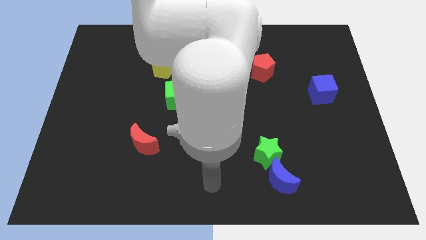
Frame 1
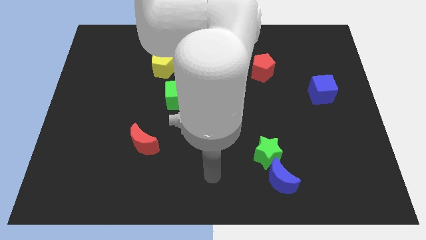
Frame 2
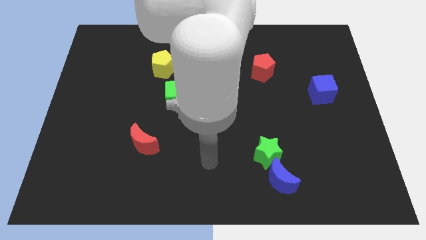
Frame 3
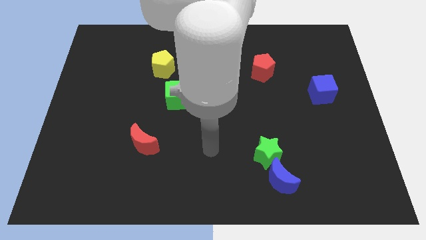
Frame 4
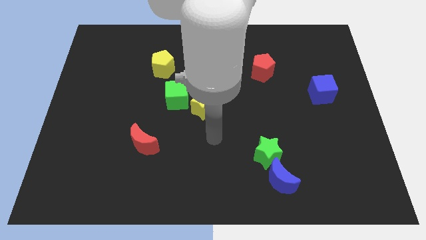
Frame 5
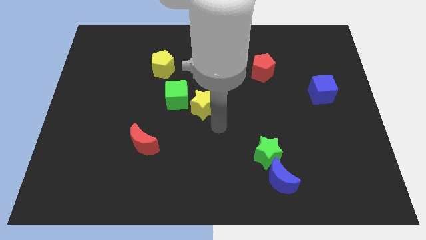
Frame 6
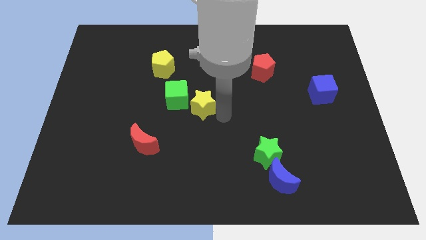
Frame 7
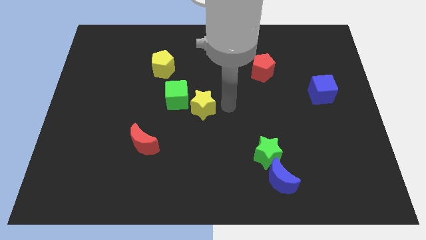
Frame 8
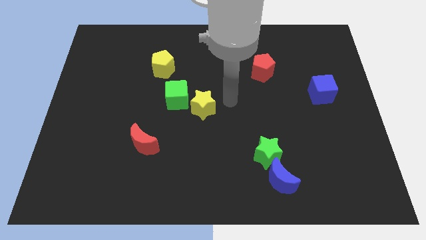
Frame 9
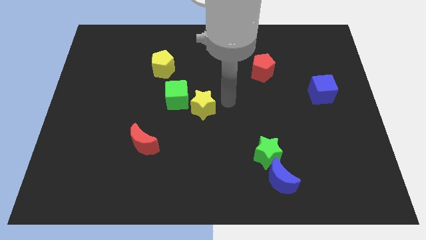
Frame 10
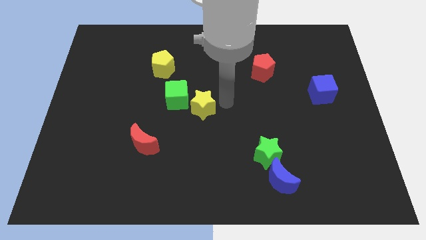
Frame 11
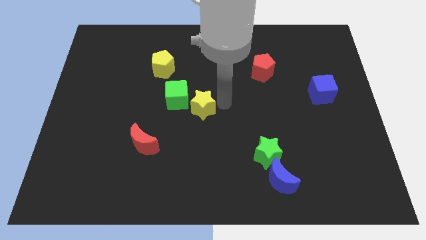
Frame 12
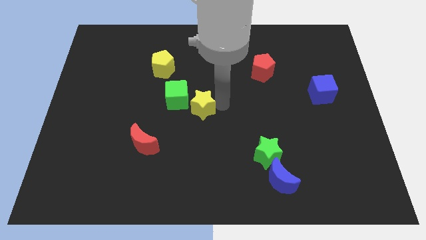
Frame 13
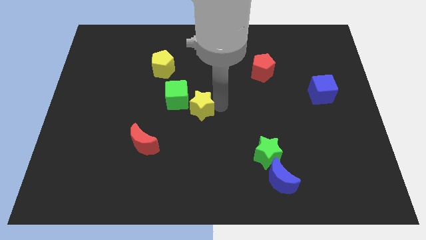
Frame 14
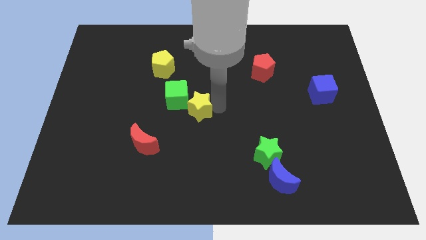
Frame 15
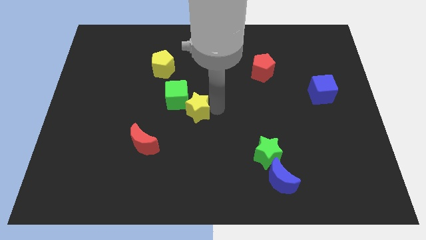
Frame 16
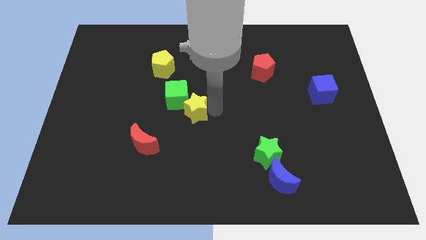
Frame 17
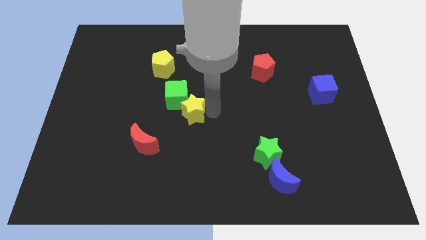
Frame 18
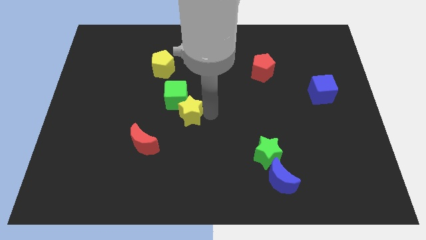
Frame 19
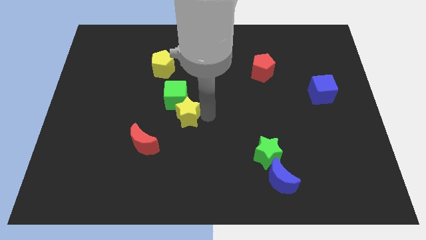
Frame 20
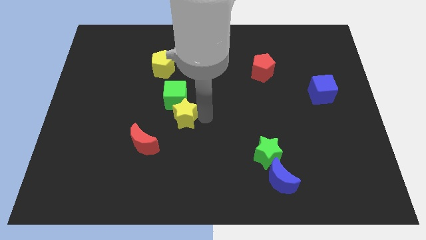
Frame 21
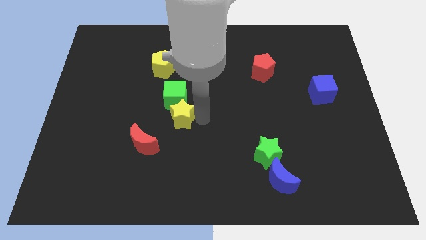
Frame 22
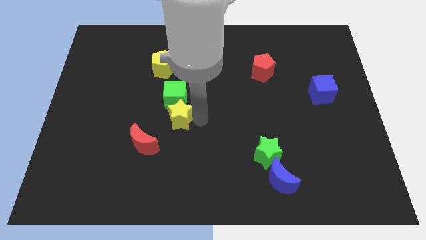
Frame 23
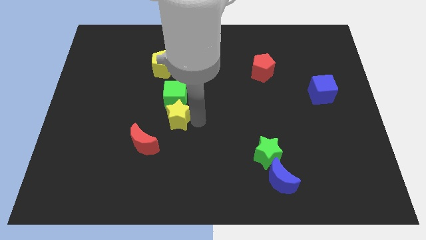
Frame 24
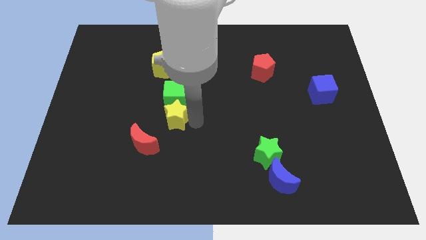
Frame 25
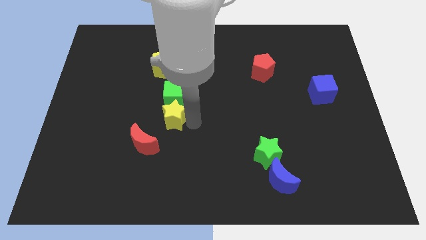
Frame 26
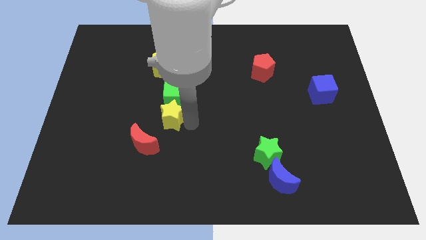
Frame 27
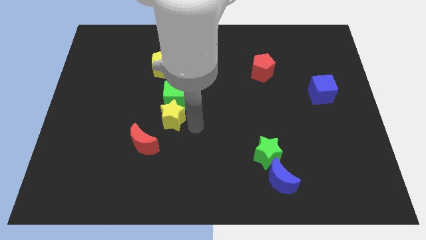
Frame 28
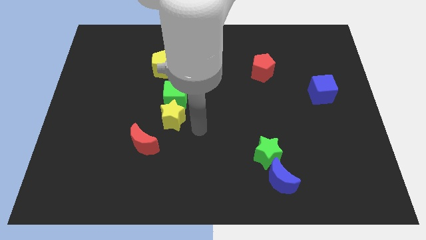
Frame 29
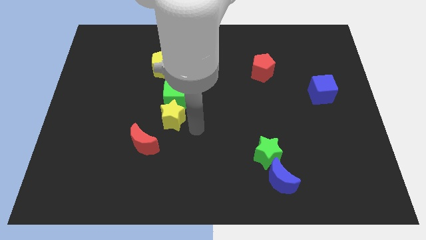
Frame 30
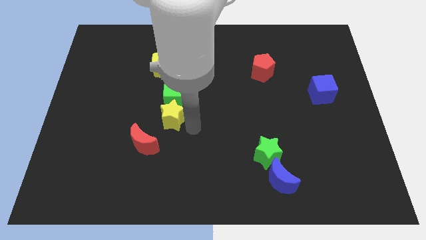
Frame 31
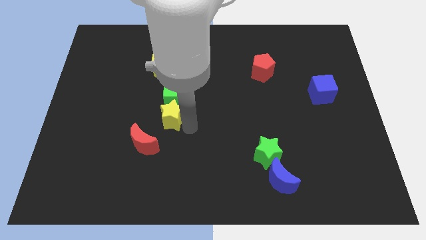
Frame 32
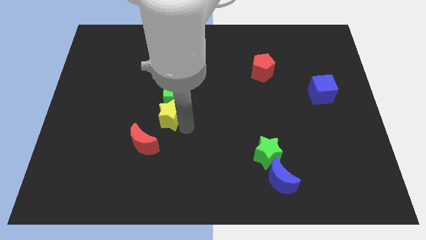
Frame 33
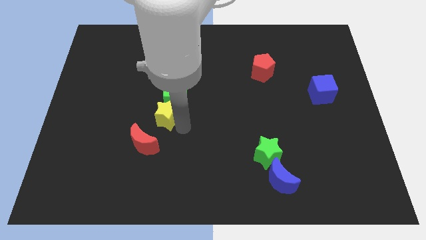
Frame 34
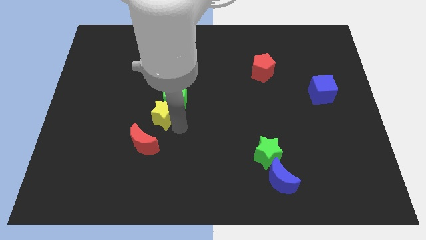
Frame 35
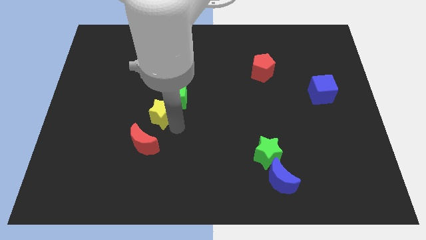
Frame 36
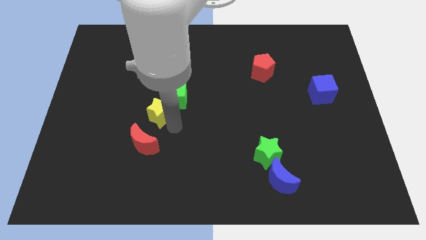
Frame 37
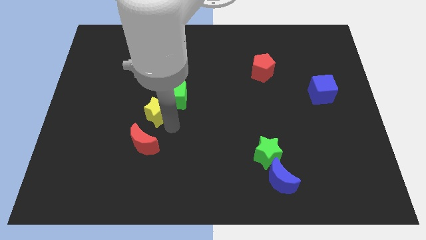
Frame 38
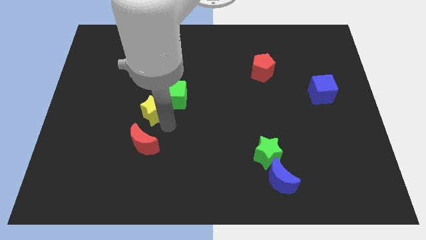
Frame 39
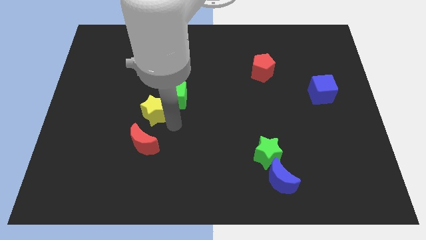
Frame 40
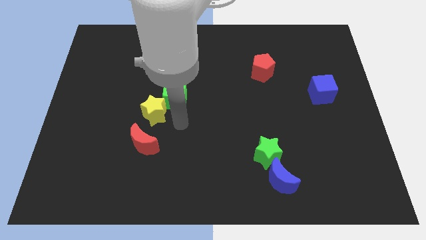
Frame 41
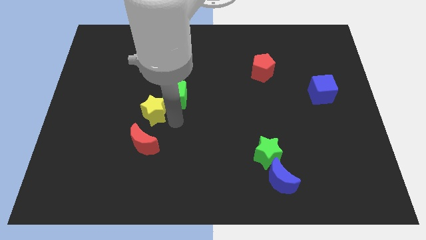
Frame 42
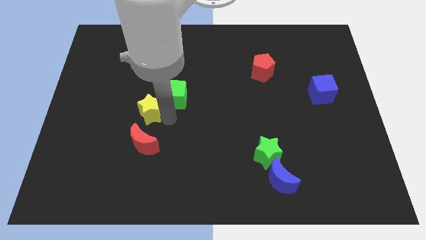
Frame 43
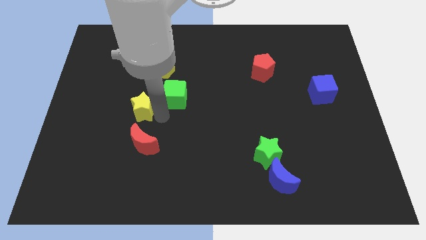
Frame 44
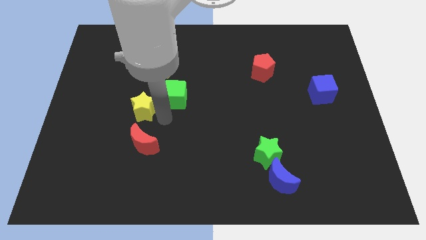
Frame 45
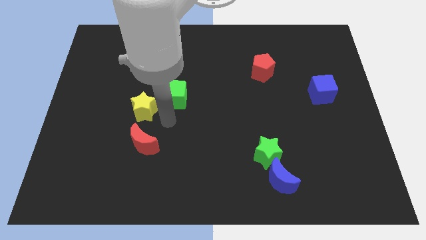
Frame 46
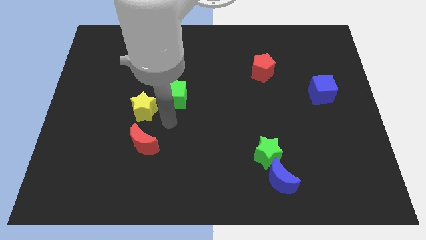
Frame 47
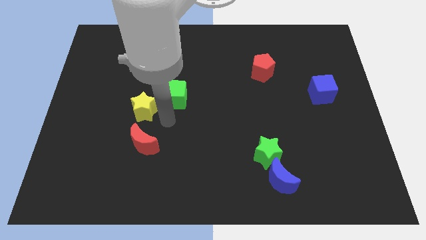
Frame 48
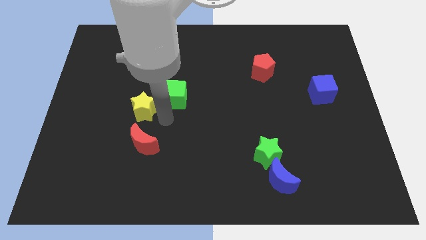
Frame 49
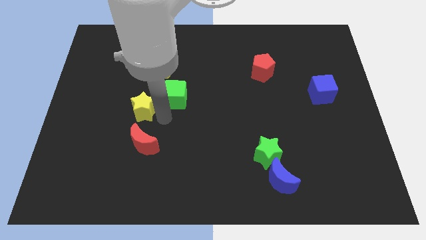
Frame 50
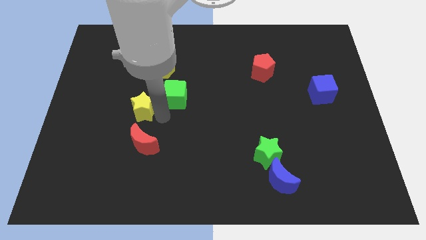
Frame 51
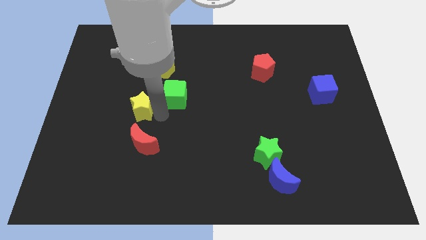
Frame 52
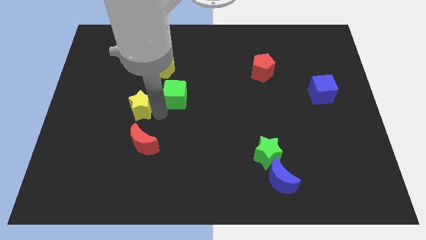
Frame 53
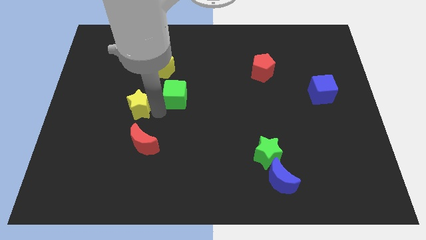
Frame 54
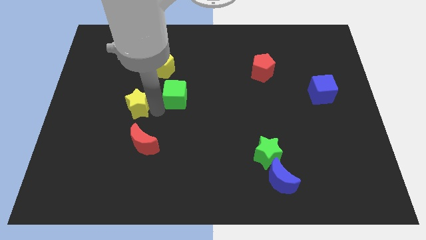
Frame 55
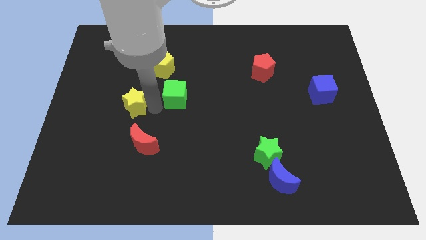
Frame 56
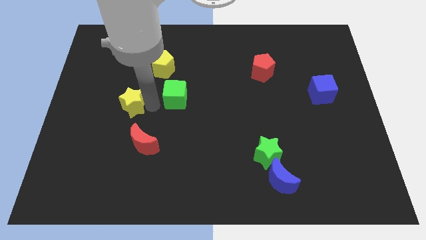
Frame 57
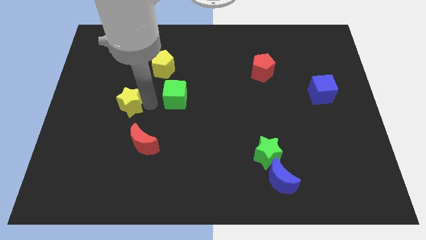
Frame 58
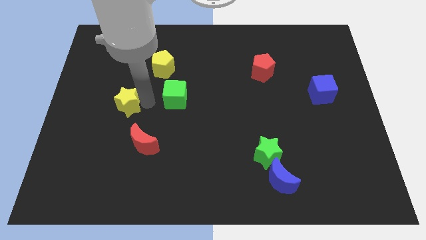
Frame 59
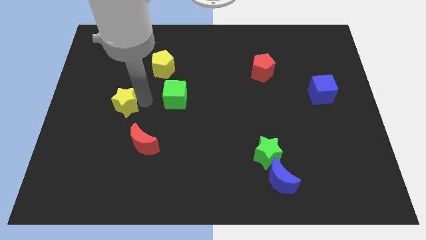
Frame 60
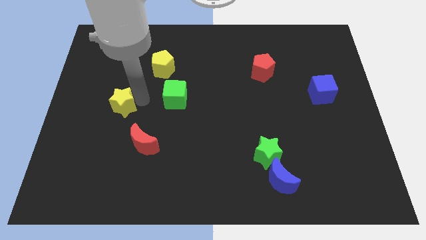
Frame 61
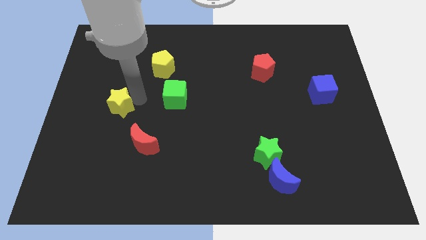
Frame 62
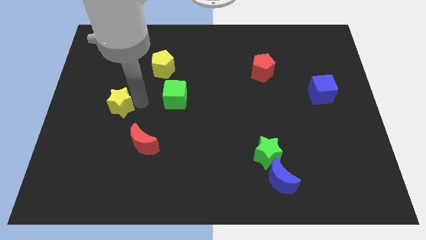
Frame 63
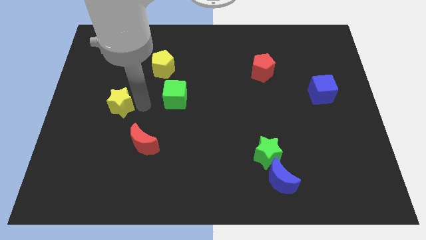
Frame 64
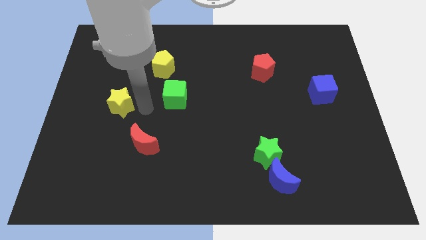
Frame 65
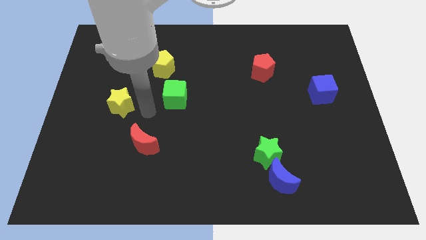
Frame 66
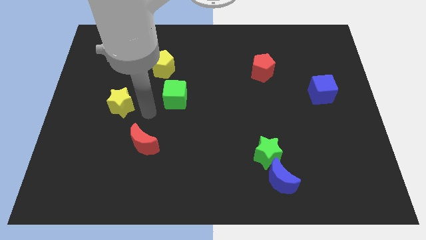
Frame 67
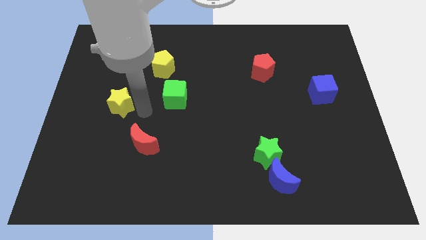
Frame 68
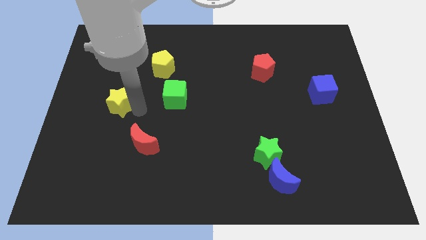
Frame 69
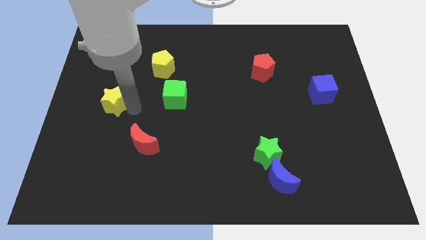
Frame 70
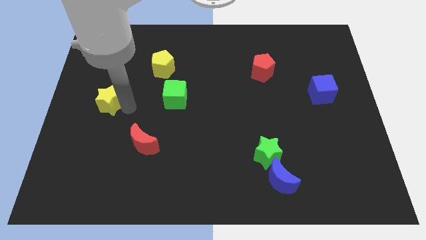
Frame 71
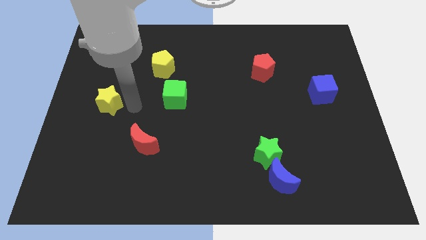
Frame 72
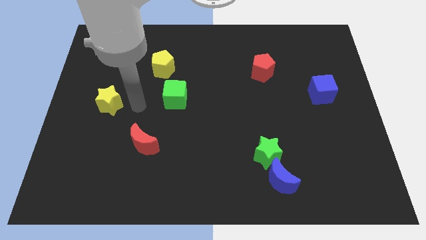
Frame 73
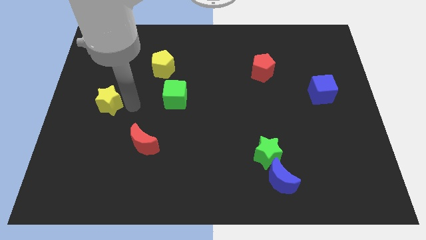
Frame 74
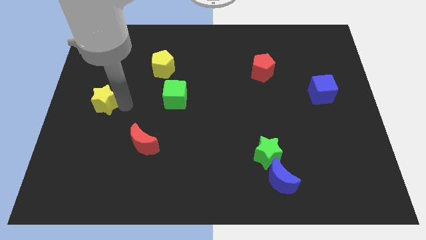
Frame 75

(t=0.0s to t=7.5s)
put the yellow star to the center left
